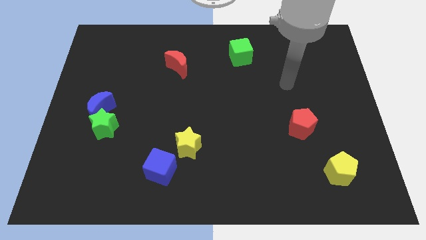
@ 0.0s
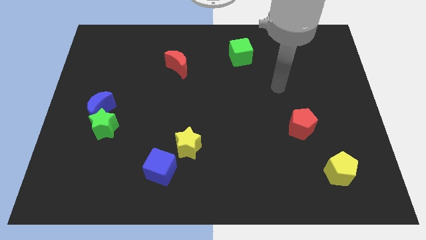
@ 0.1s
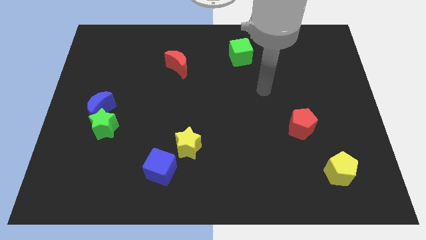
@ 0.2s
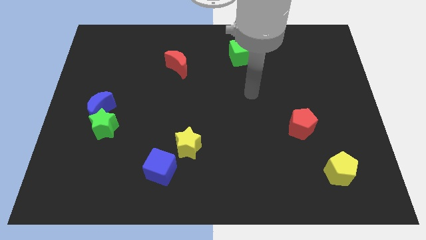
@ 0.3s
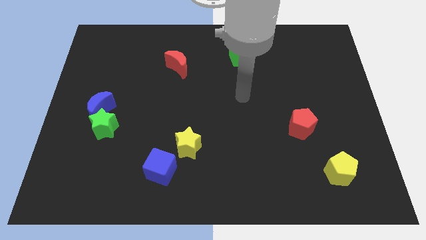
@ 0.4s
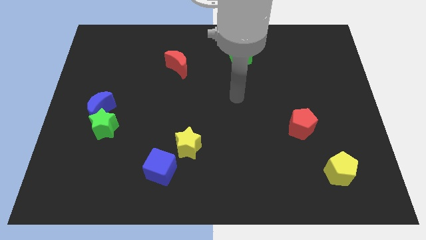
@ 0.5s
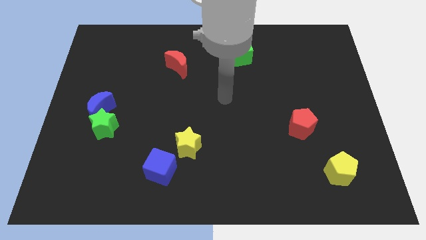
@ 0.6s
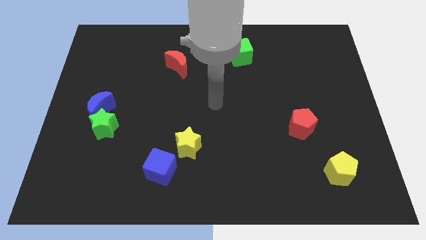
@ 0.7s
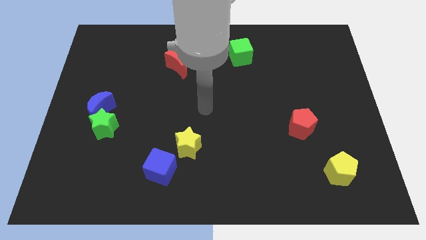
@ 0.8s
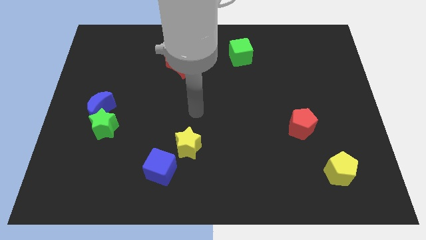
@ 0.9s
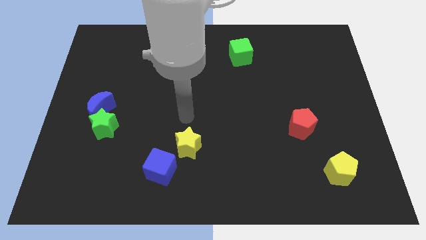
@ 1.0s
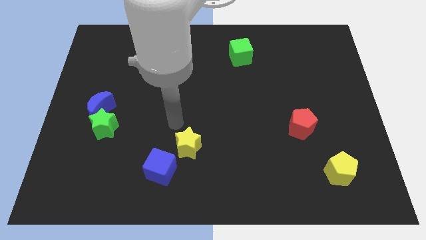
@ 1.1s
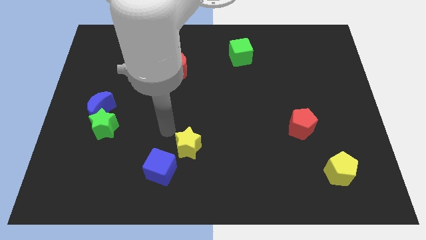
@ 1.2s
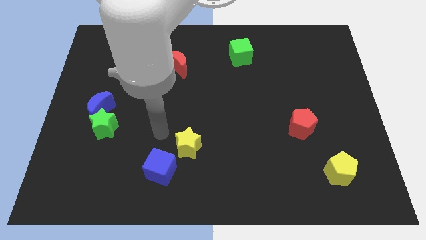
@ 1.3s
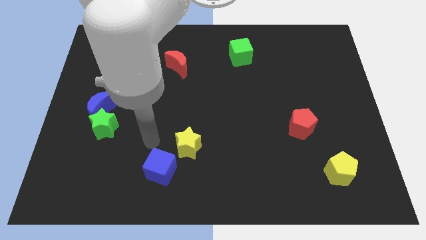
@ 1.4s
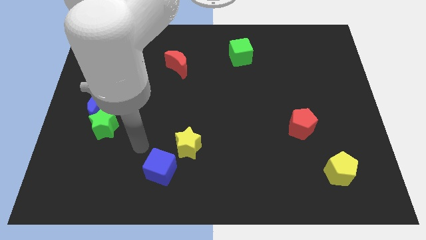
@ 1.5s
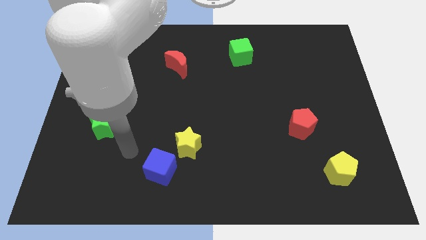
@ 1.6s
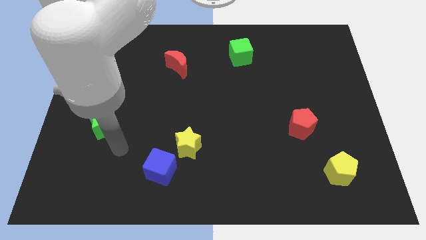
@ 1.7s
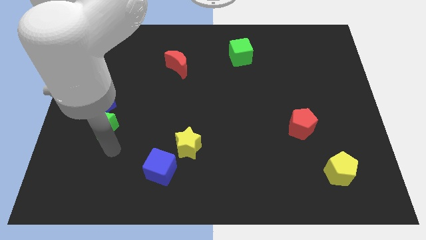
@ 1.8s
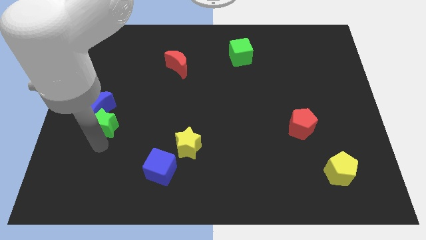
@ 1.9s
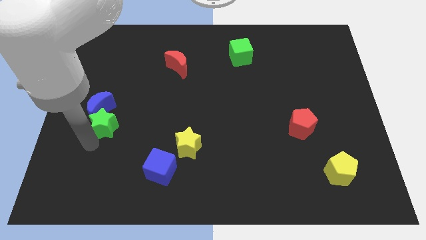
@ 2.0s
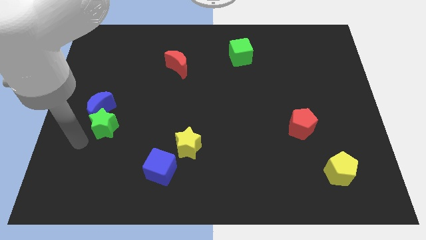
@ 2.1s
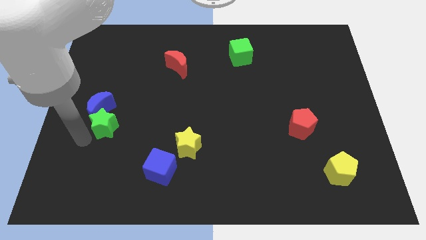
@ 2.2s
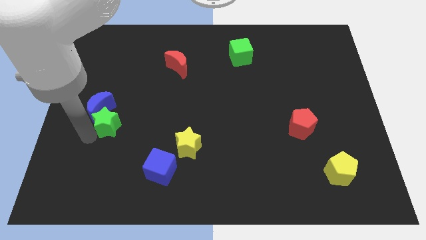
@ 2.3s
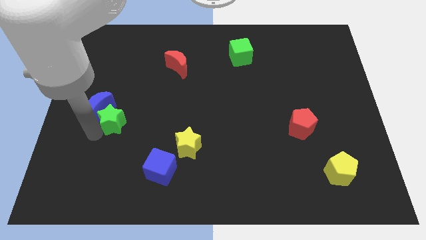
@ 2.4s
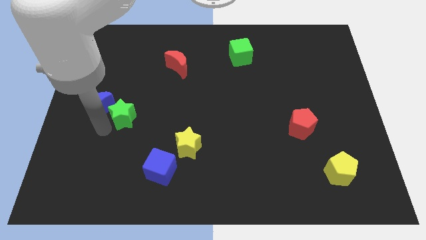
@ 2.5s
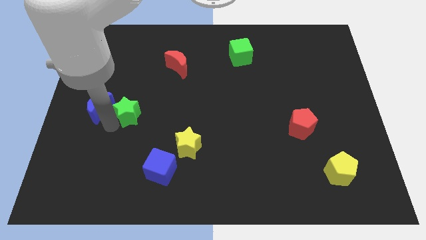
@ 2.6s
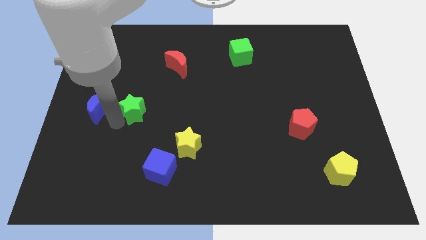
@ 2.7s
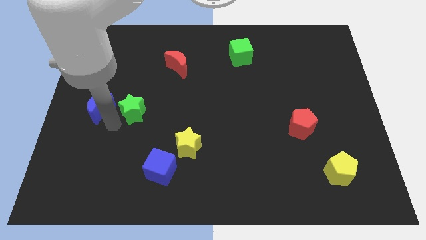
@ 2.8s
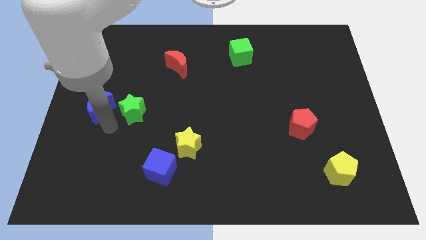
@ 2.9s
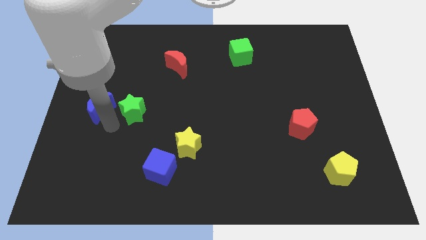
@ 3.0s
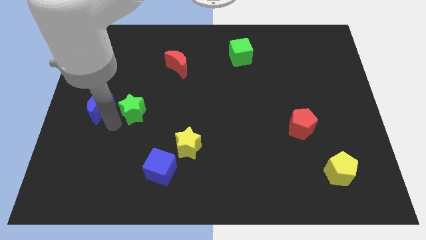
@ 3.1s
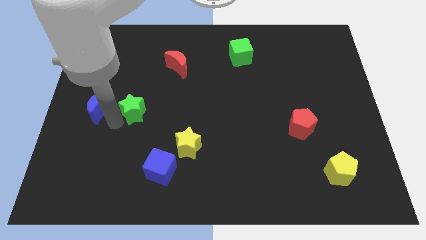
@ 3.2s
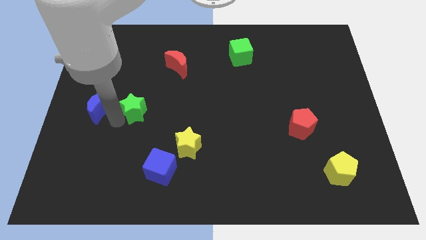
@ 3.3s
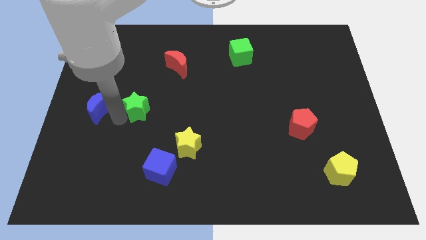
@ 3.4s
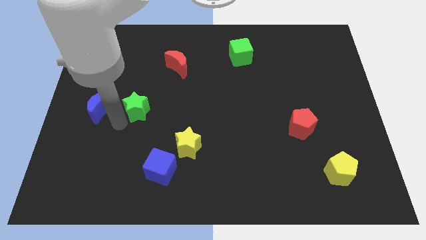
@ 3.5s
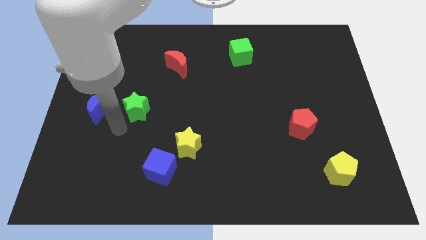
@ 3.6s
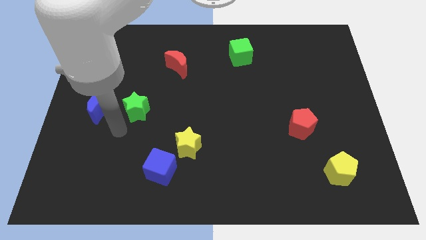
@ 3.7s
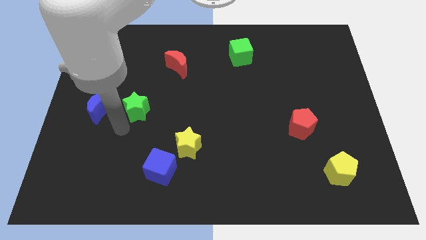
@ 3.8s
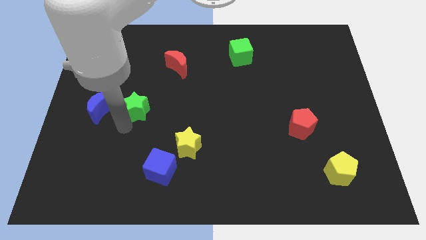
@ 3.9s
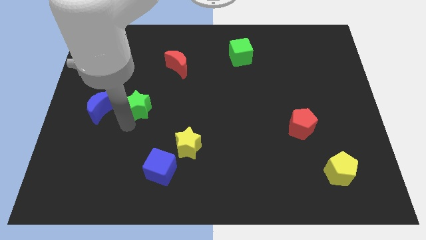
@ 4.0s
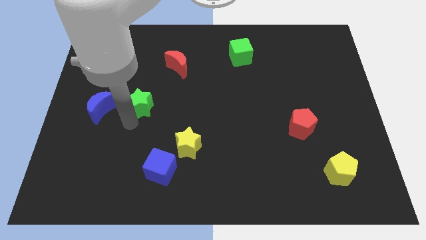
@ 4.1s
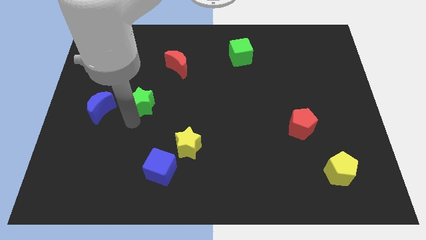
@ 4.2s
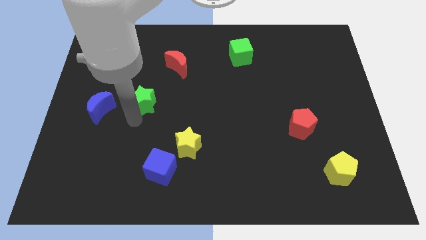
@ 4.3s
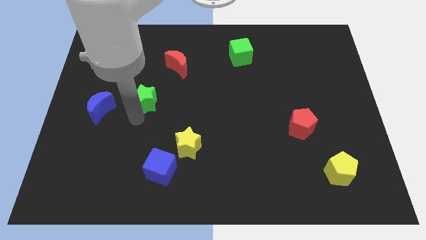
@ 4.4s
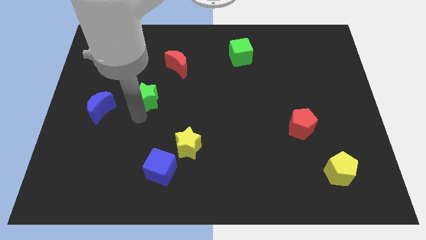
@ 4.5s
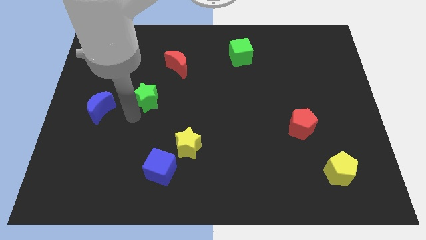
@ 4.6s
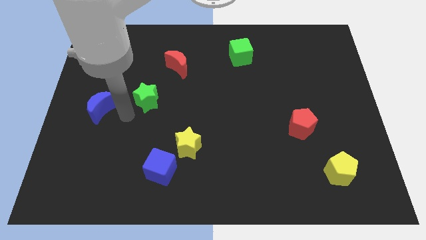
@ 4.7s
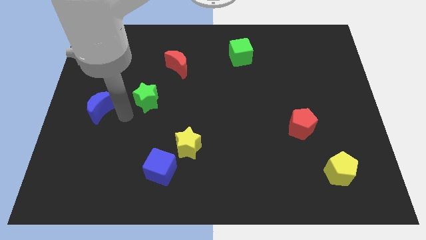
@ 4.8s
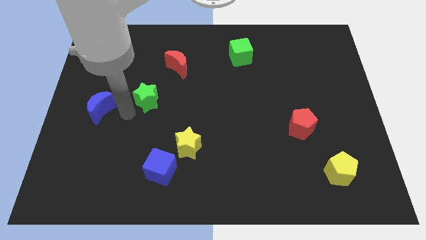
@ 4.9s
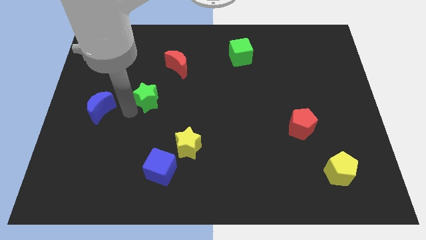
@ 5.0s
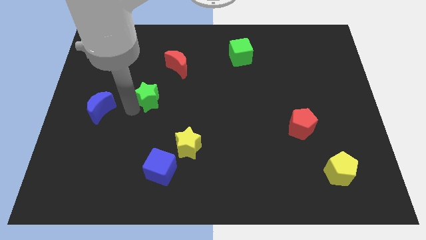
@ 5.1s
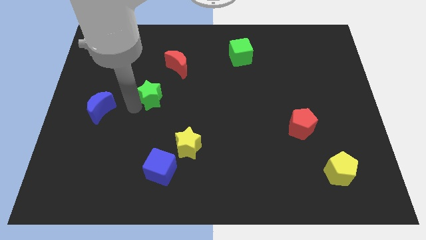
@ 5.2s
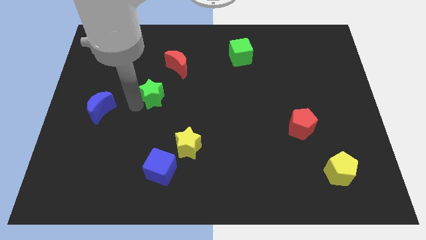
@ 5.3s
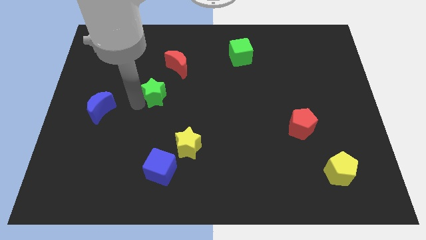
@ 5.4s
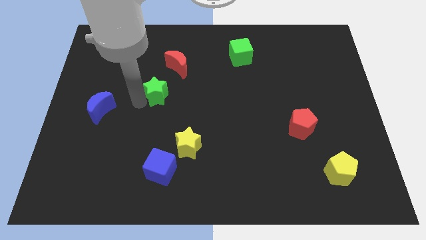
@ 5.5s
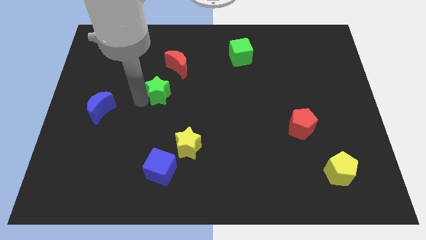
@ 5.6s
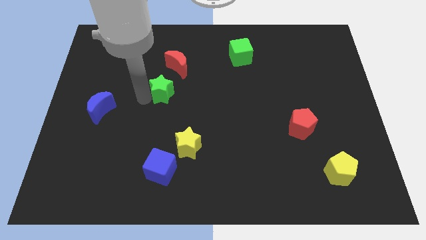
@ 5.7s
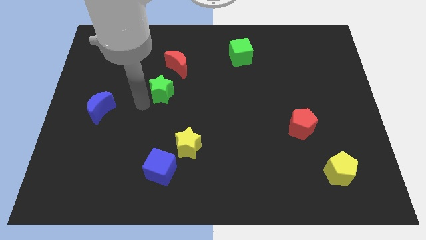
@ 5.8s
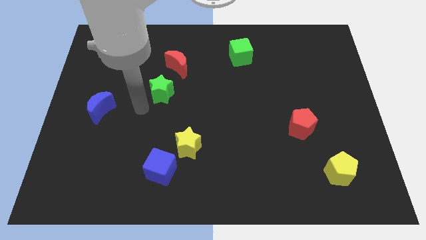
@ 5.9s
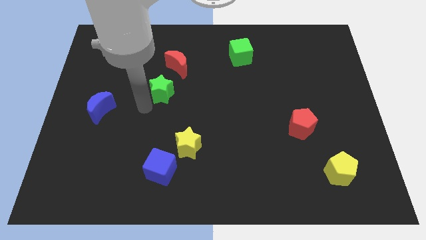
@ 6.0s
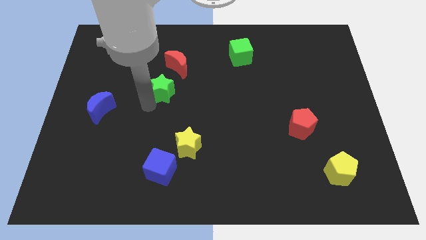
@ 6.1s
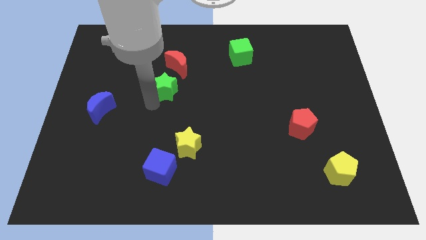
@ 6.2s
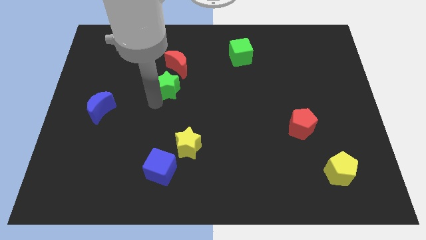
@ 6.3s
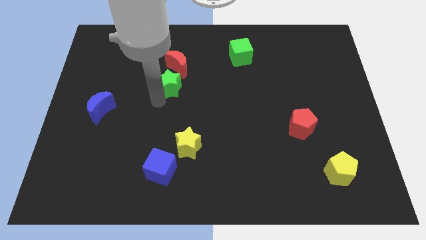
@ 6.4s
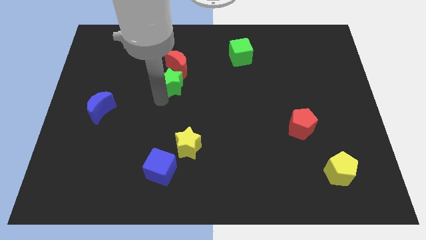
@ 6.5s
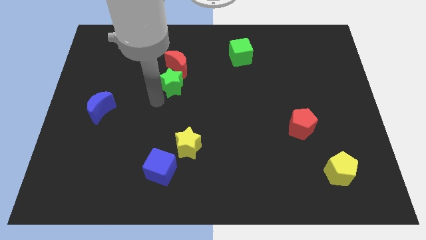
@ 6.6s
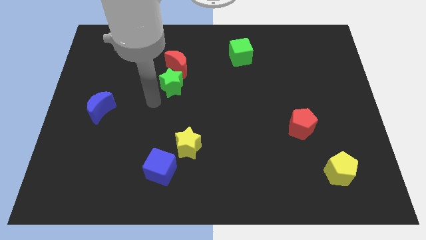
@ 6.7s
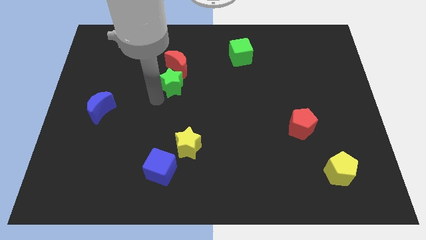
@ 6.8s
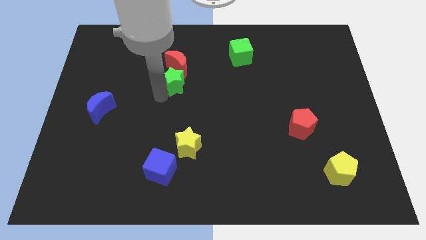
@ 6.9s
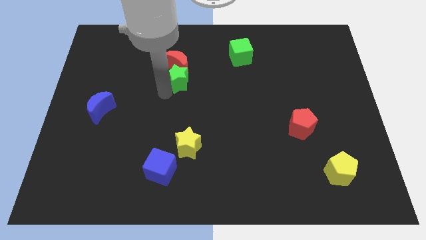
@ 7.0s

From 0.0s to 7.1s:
push the green star up and right diagonally

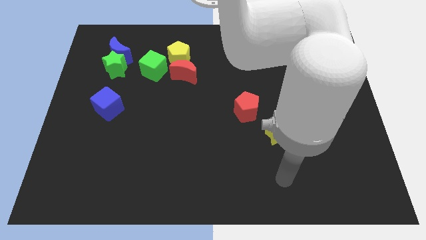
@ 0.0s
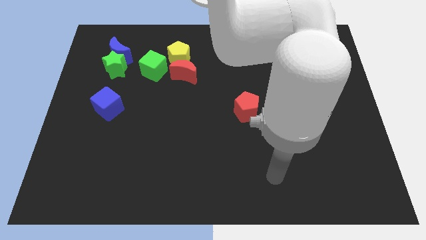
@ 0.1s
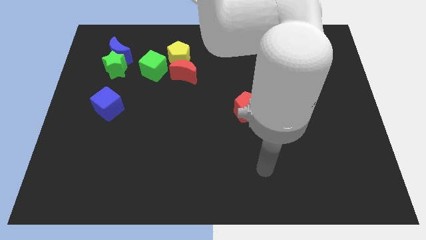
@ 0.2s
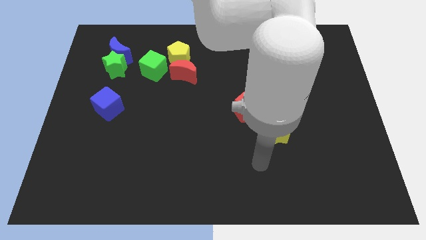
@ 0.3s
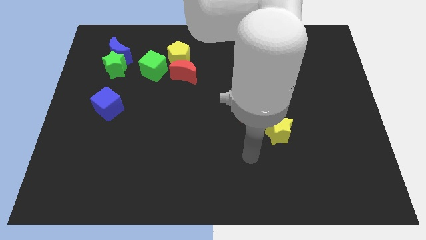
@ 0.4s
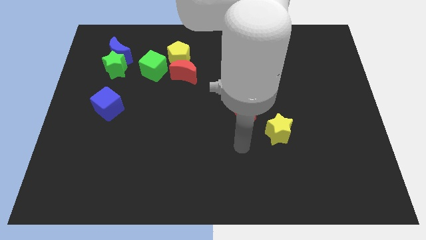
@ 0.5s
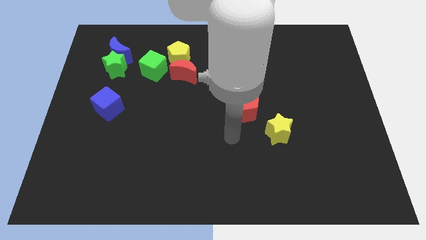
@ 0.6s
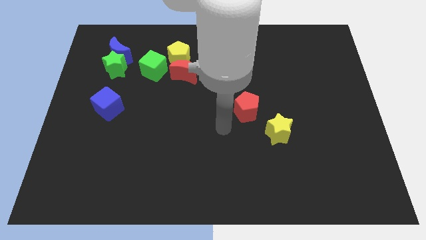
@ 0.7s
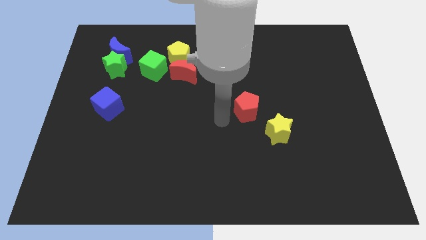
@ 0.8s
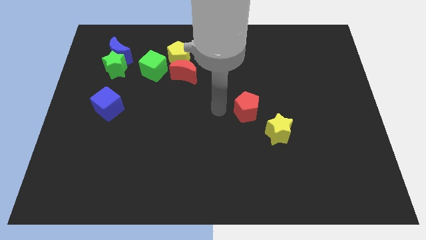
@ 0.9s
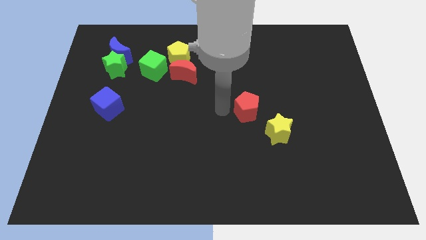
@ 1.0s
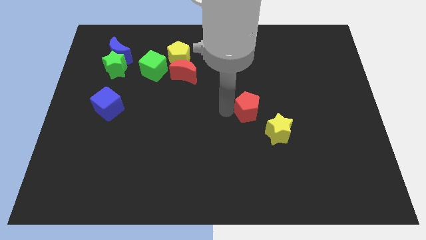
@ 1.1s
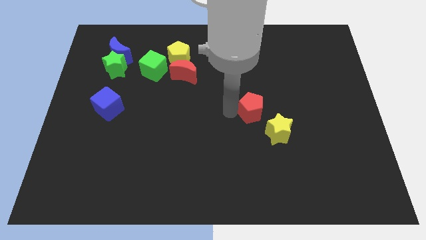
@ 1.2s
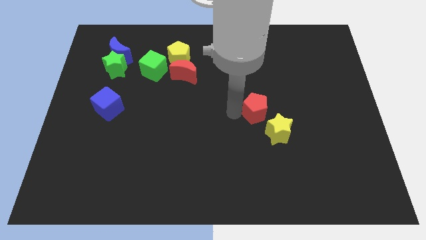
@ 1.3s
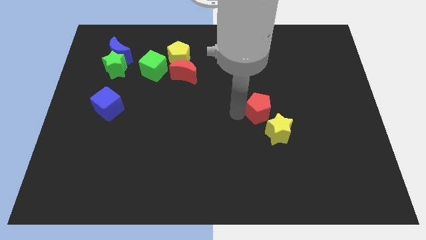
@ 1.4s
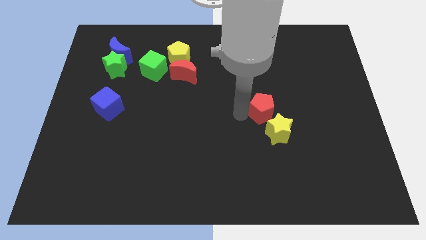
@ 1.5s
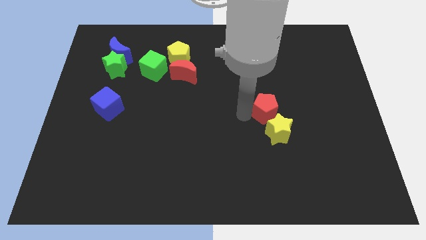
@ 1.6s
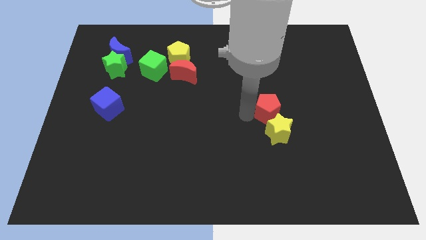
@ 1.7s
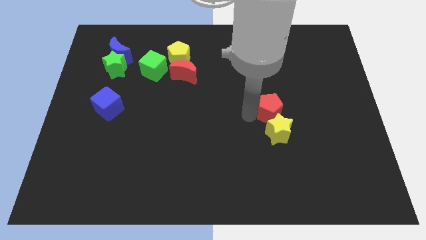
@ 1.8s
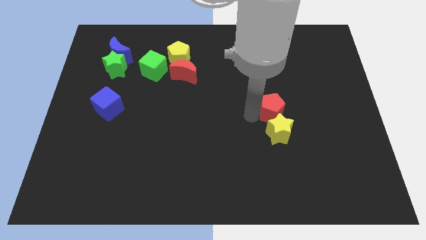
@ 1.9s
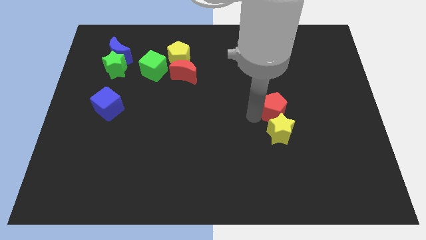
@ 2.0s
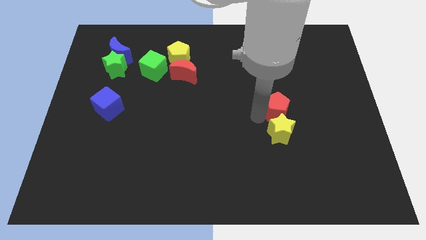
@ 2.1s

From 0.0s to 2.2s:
move the red pentagon a little bit right
